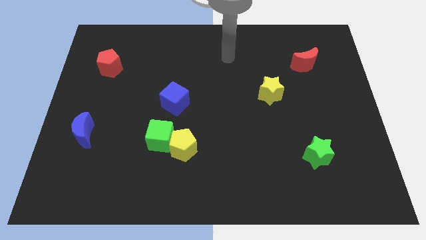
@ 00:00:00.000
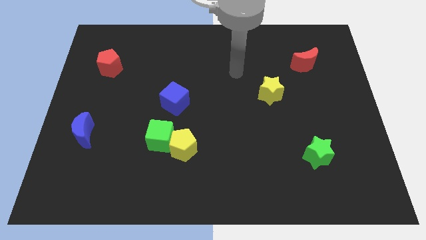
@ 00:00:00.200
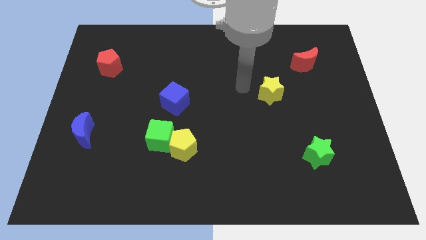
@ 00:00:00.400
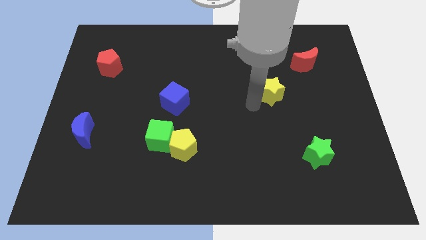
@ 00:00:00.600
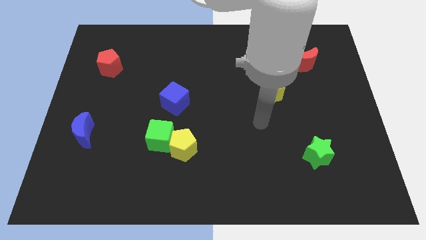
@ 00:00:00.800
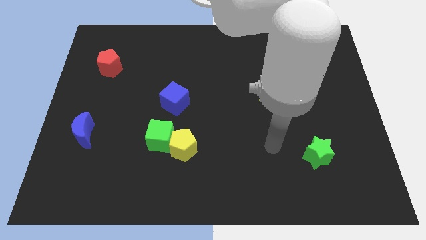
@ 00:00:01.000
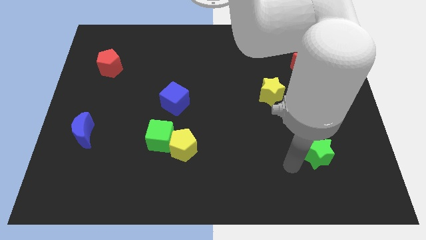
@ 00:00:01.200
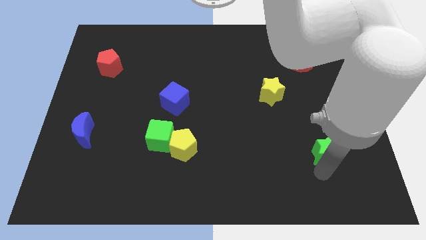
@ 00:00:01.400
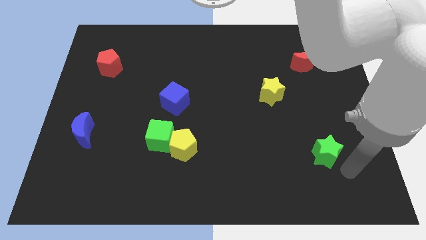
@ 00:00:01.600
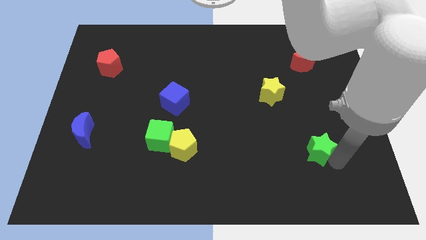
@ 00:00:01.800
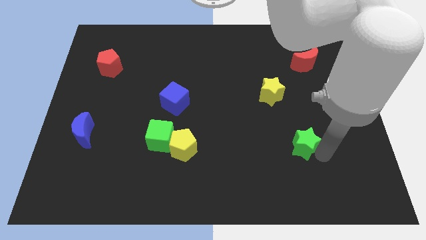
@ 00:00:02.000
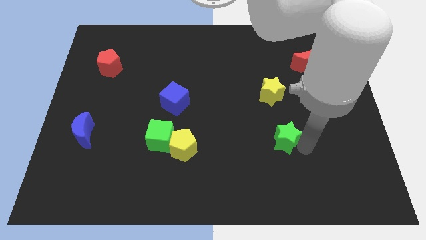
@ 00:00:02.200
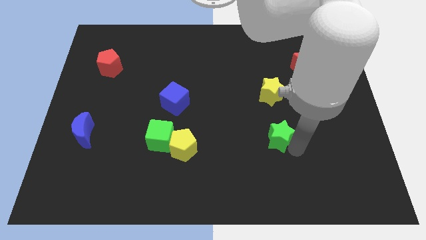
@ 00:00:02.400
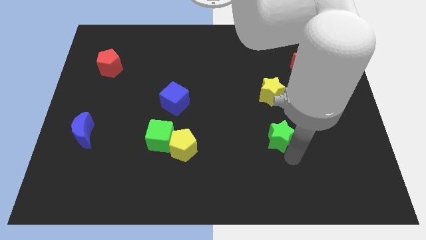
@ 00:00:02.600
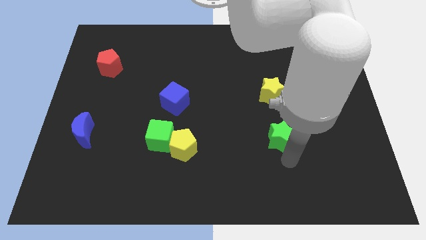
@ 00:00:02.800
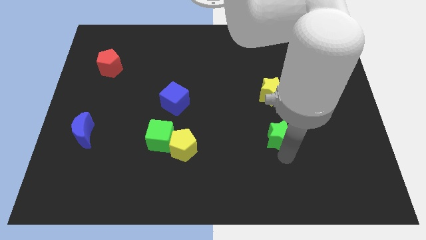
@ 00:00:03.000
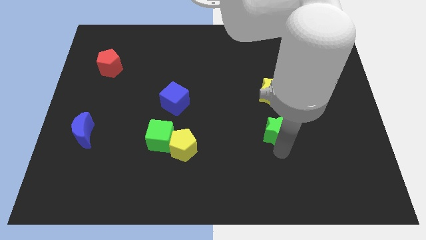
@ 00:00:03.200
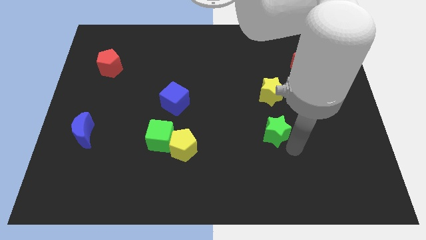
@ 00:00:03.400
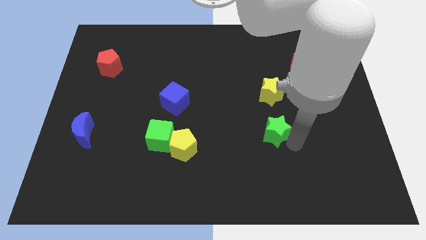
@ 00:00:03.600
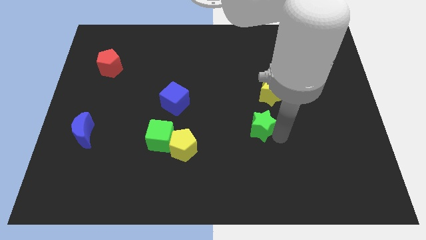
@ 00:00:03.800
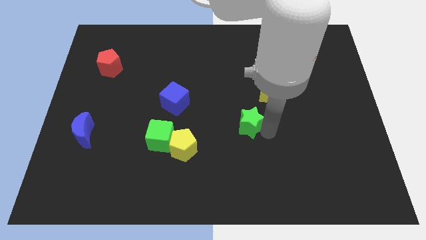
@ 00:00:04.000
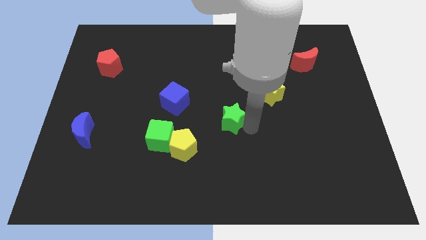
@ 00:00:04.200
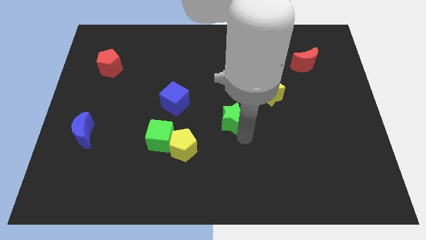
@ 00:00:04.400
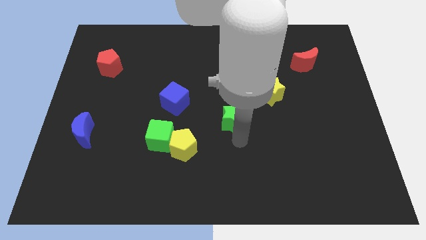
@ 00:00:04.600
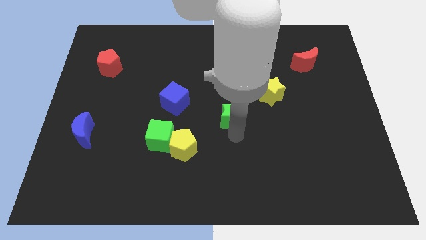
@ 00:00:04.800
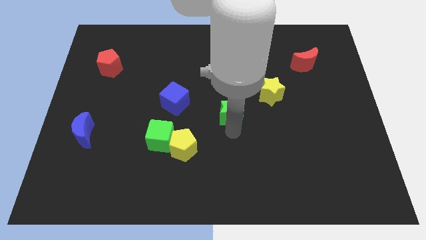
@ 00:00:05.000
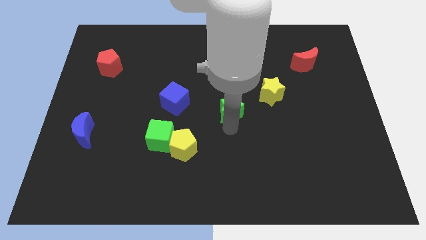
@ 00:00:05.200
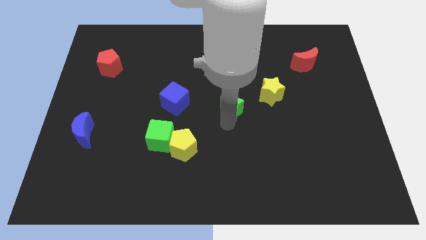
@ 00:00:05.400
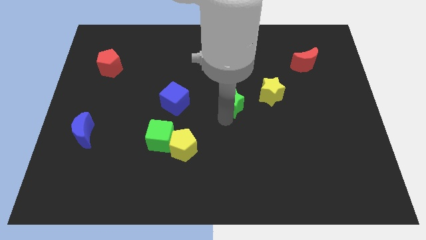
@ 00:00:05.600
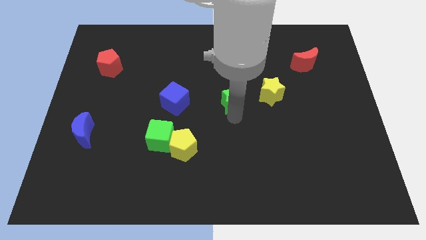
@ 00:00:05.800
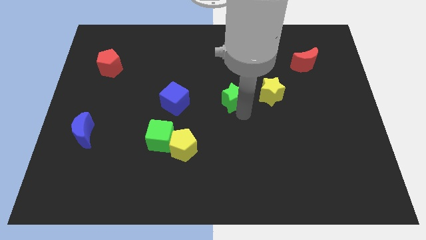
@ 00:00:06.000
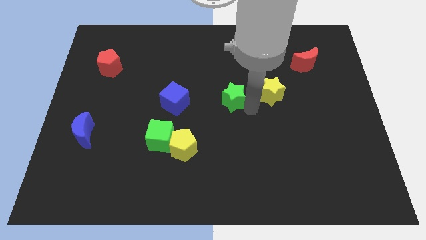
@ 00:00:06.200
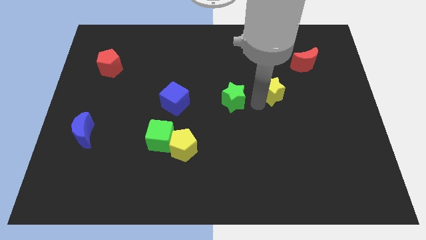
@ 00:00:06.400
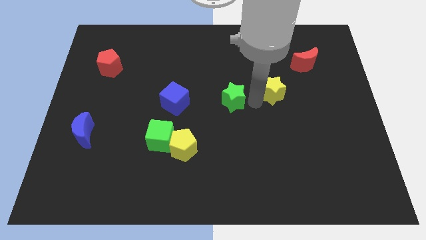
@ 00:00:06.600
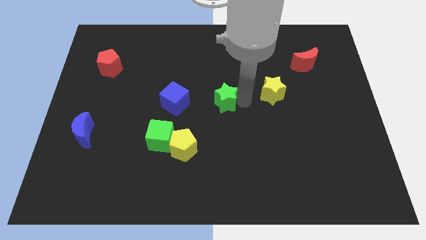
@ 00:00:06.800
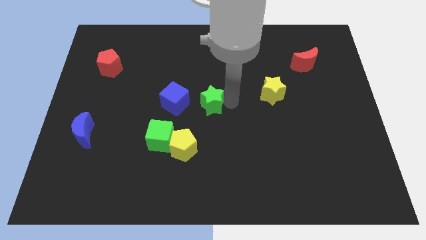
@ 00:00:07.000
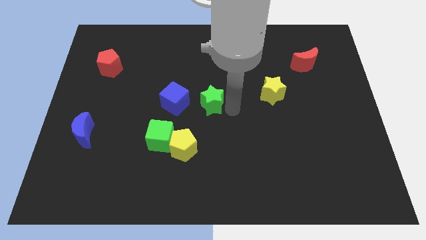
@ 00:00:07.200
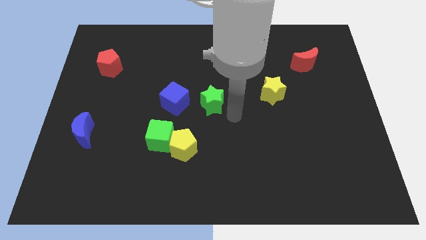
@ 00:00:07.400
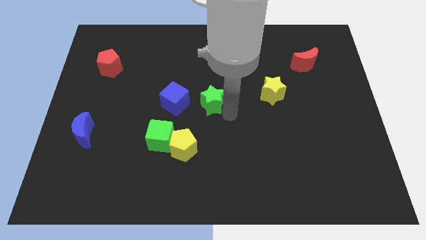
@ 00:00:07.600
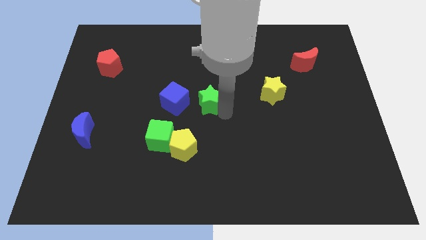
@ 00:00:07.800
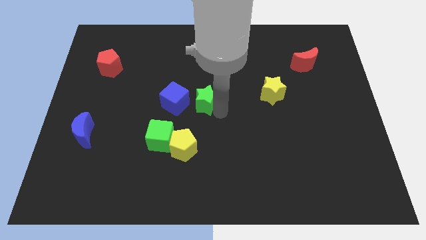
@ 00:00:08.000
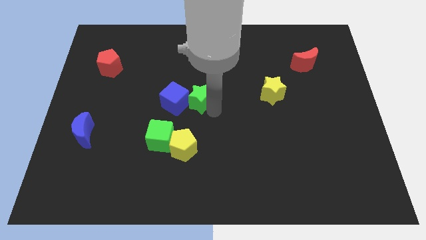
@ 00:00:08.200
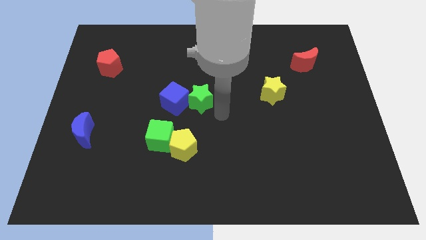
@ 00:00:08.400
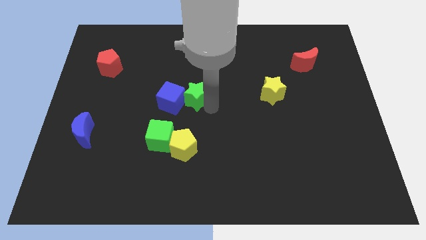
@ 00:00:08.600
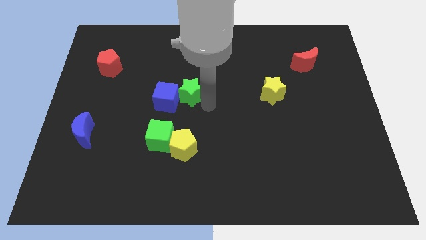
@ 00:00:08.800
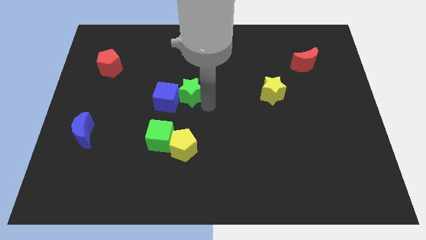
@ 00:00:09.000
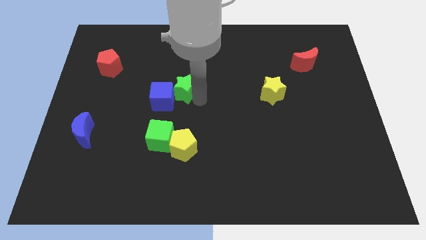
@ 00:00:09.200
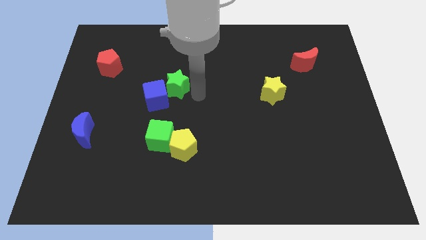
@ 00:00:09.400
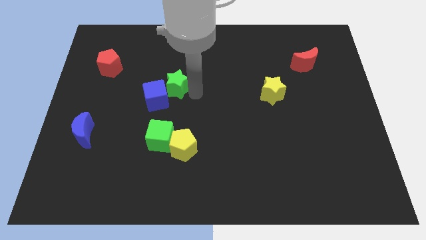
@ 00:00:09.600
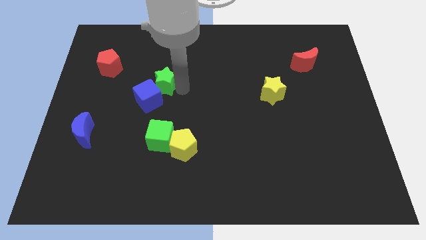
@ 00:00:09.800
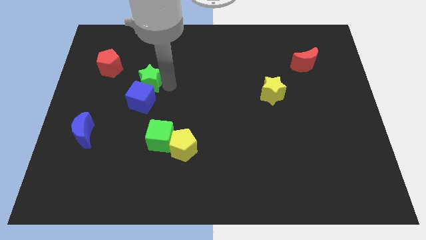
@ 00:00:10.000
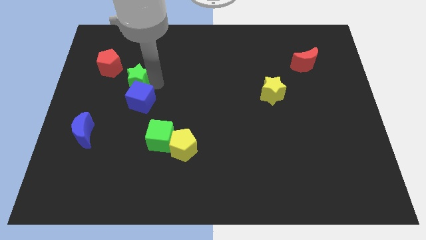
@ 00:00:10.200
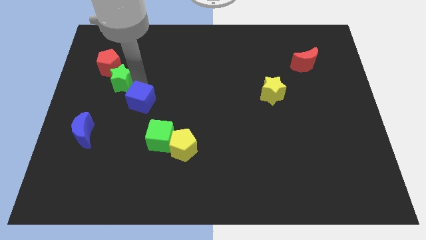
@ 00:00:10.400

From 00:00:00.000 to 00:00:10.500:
move the green star to the red pentagon

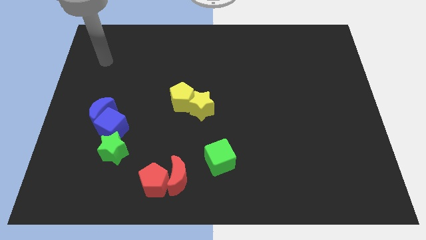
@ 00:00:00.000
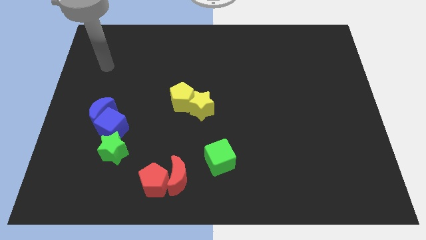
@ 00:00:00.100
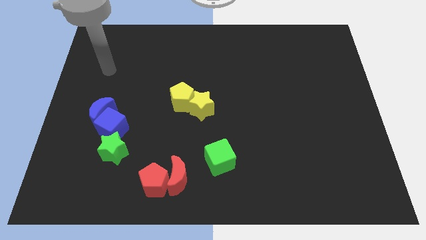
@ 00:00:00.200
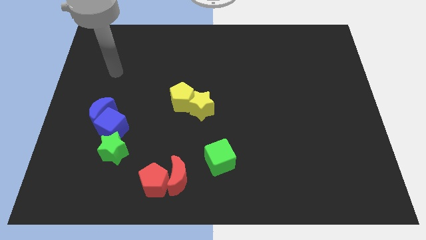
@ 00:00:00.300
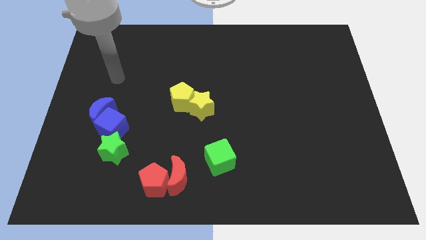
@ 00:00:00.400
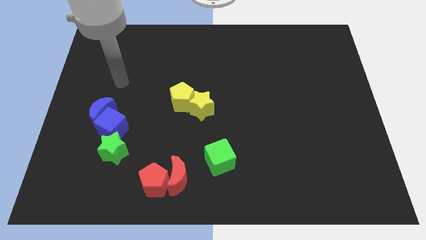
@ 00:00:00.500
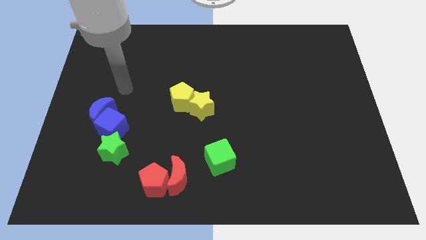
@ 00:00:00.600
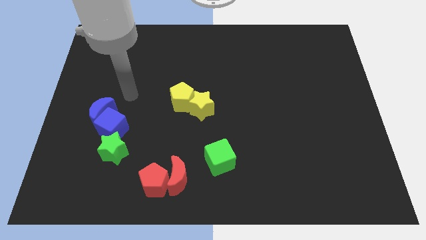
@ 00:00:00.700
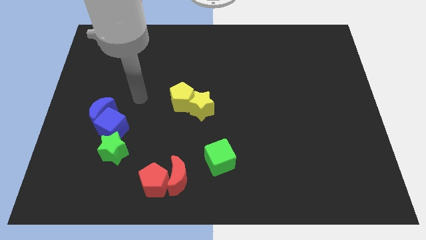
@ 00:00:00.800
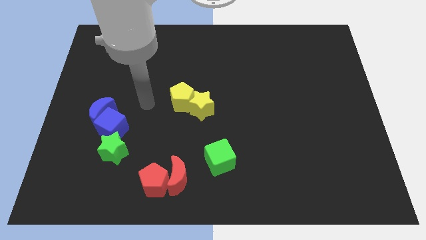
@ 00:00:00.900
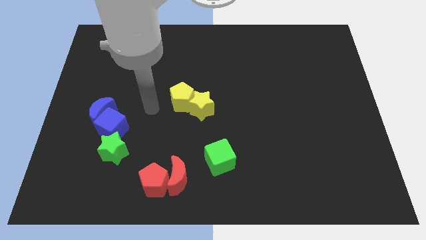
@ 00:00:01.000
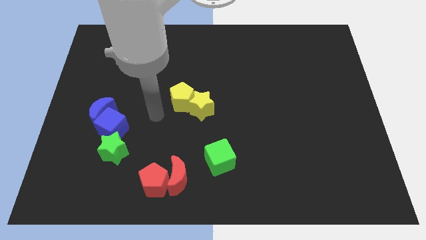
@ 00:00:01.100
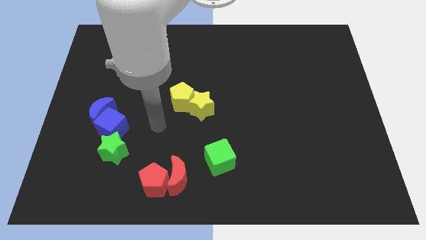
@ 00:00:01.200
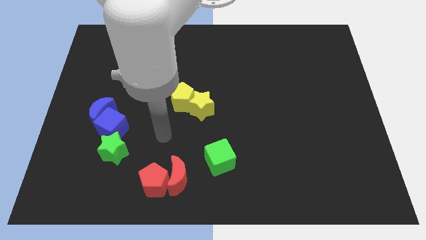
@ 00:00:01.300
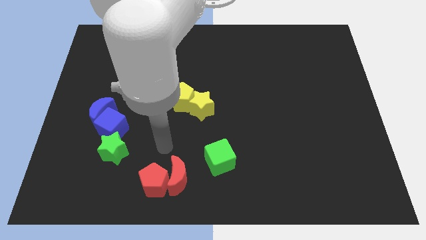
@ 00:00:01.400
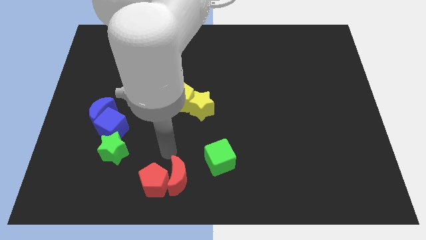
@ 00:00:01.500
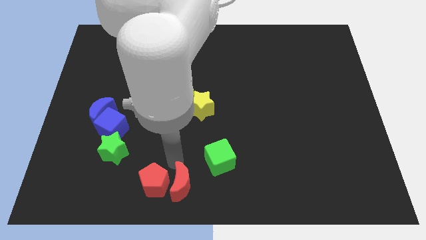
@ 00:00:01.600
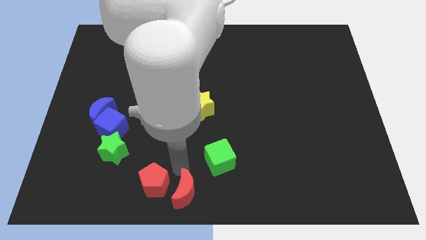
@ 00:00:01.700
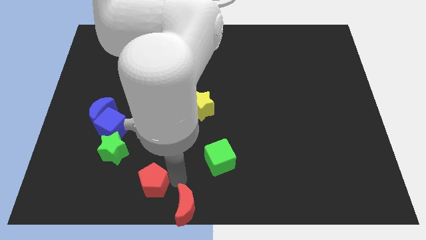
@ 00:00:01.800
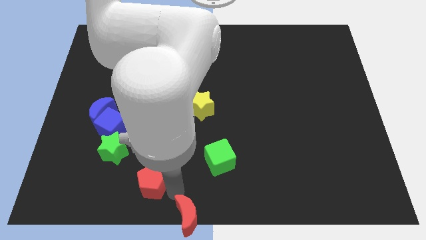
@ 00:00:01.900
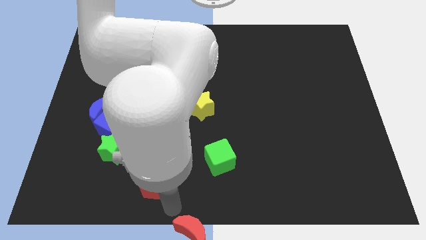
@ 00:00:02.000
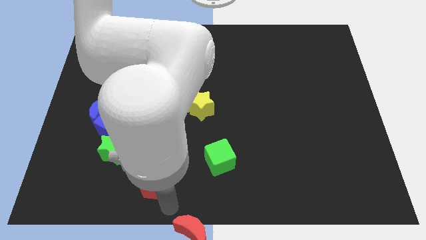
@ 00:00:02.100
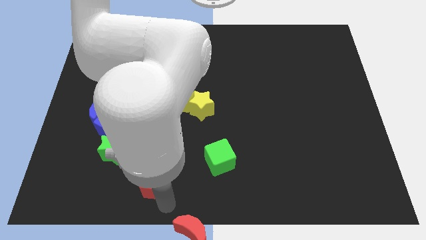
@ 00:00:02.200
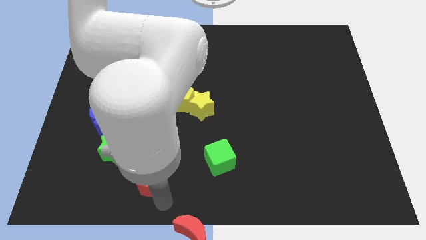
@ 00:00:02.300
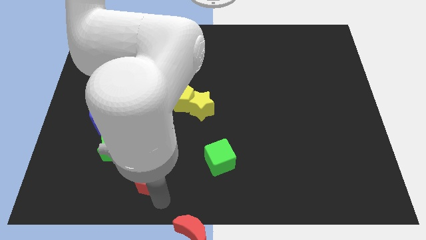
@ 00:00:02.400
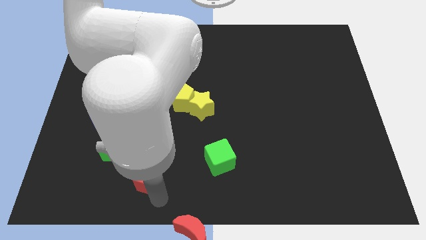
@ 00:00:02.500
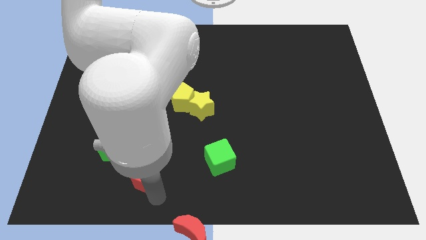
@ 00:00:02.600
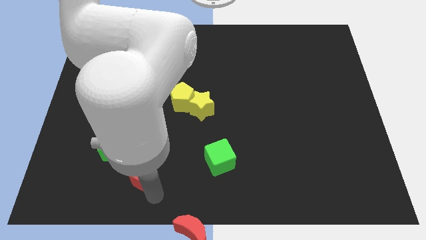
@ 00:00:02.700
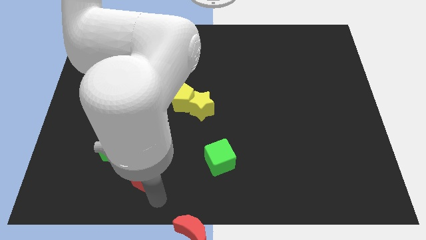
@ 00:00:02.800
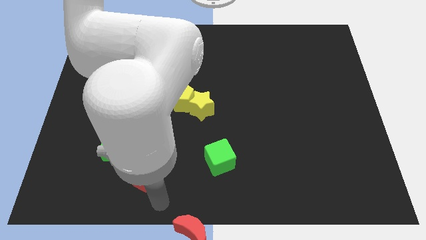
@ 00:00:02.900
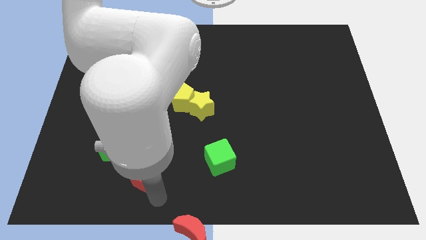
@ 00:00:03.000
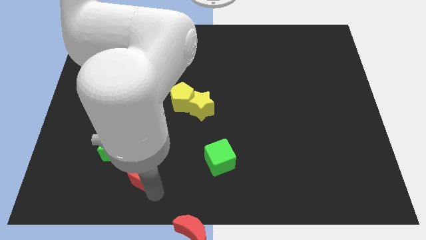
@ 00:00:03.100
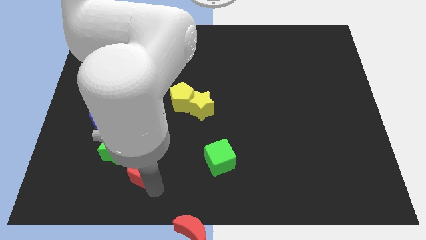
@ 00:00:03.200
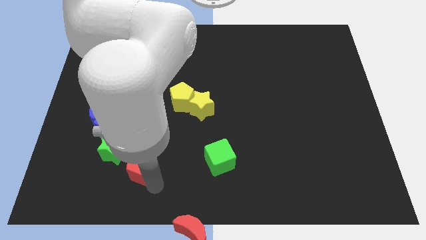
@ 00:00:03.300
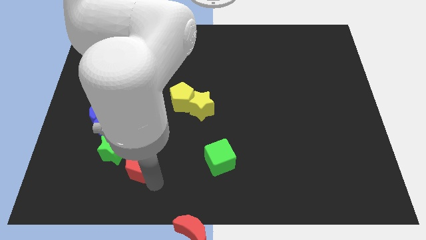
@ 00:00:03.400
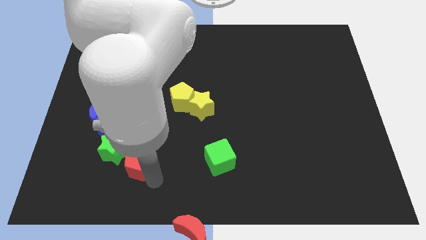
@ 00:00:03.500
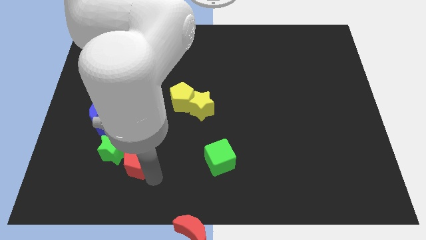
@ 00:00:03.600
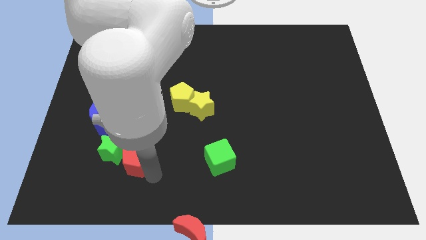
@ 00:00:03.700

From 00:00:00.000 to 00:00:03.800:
push the red pentagon close to the green star
